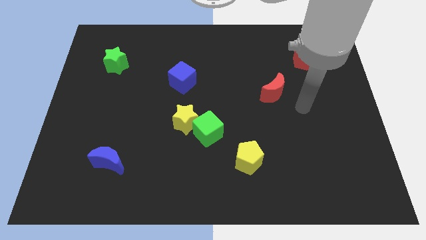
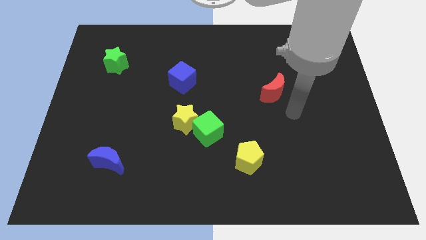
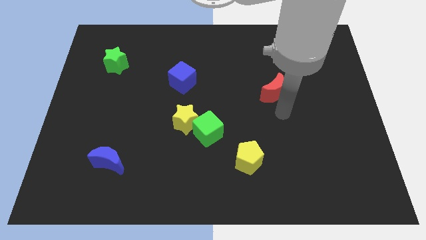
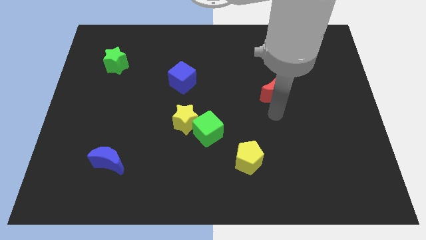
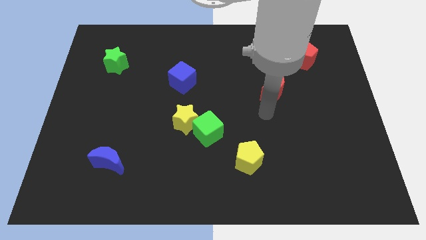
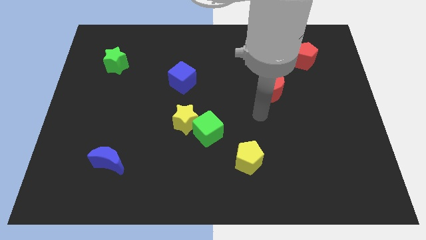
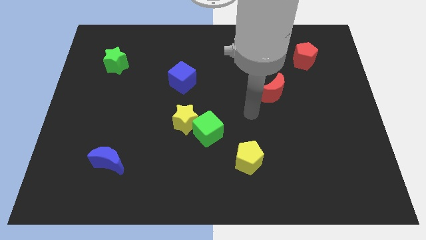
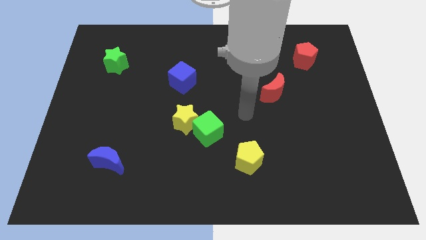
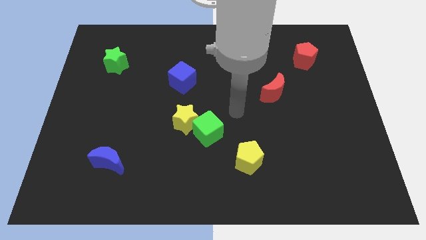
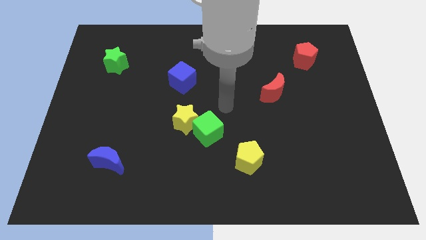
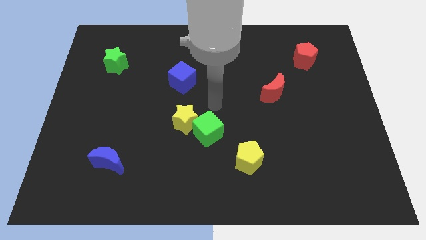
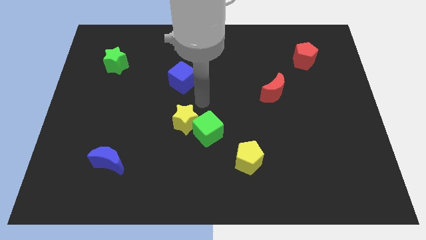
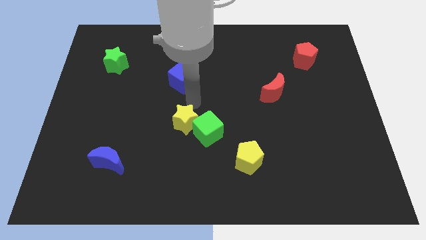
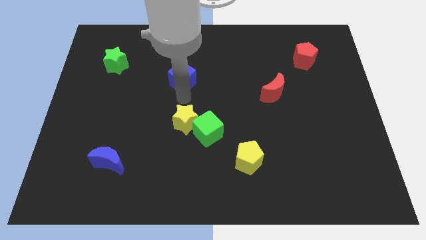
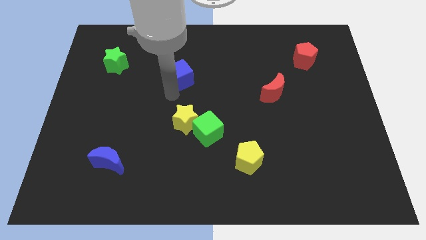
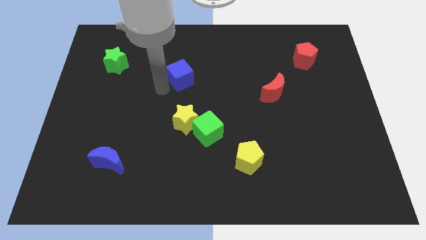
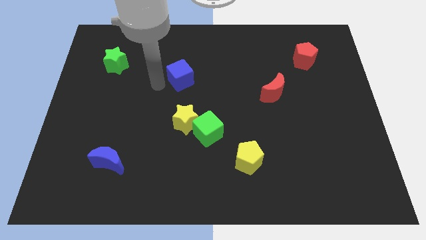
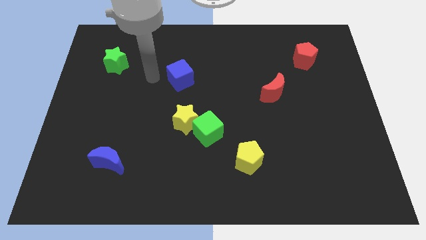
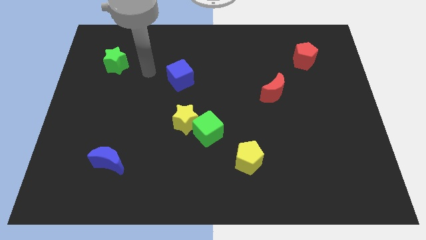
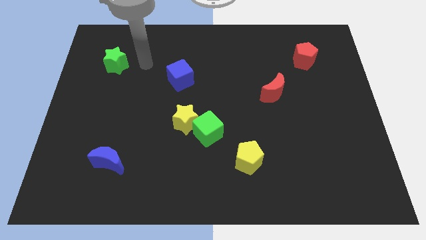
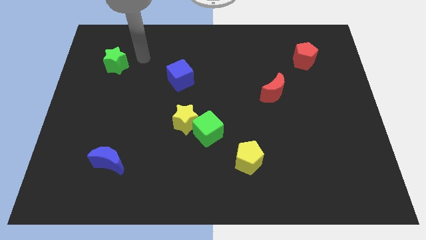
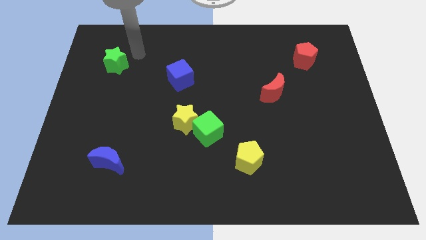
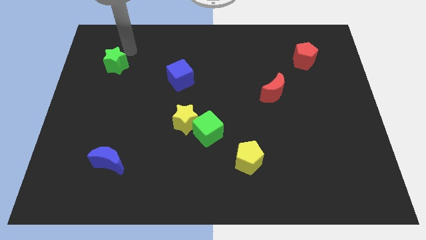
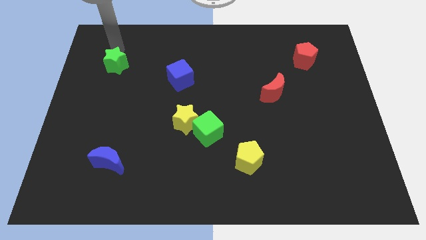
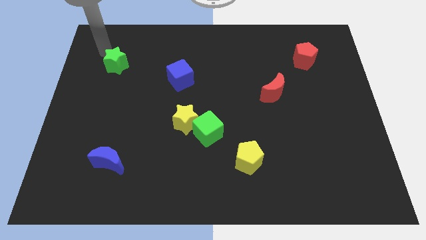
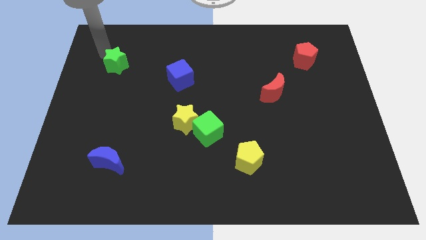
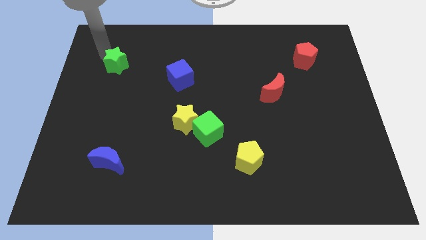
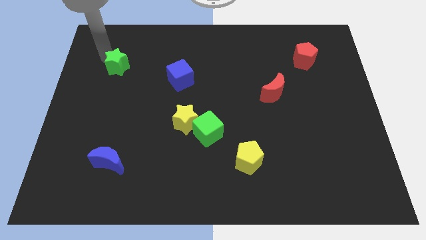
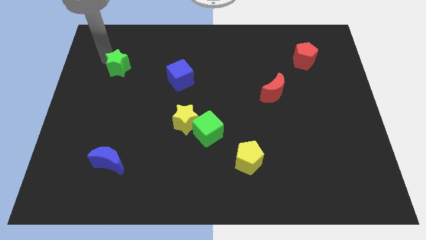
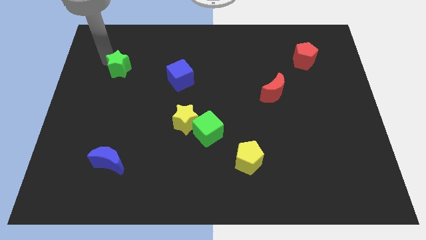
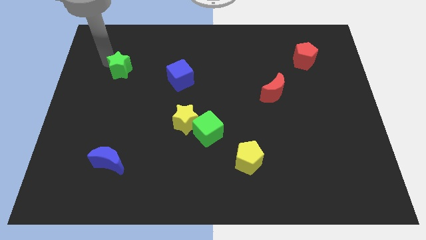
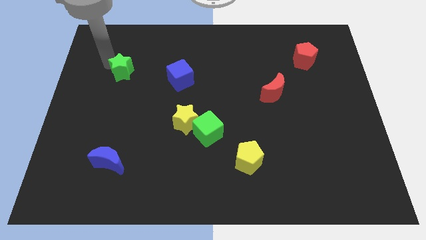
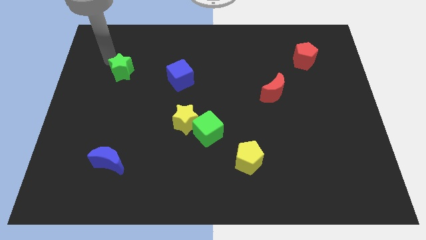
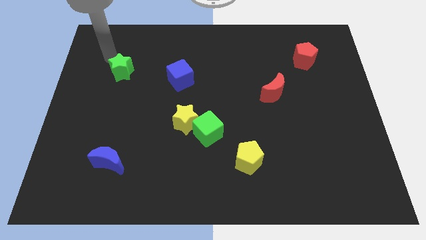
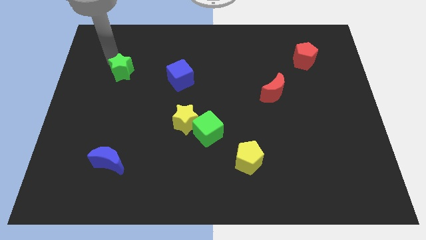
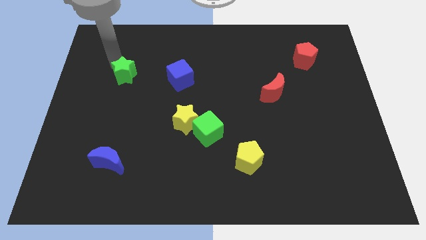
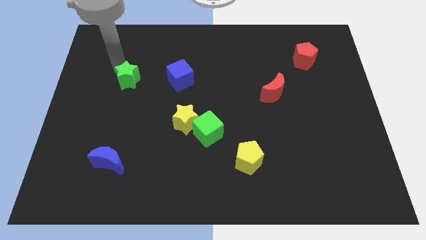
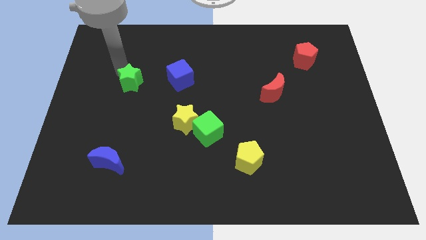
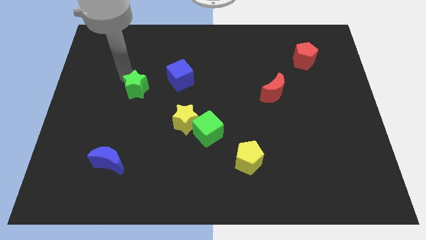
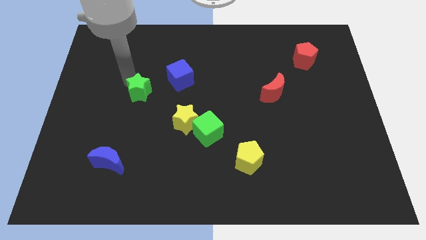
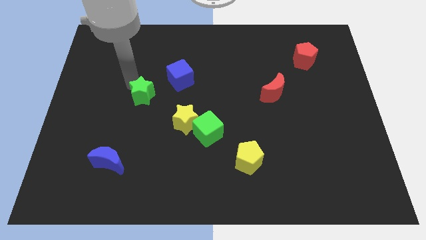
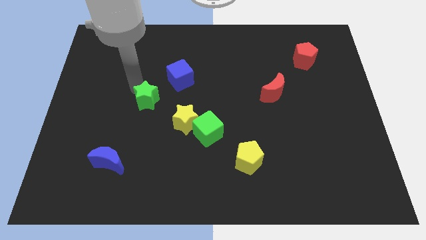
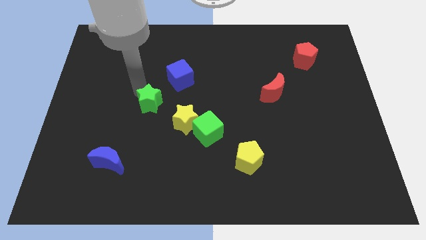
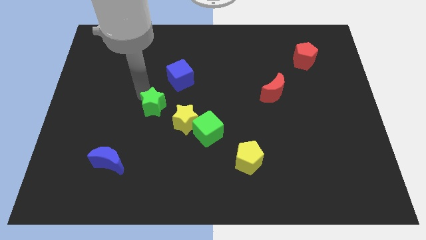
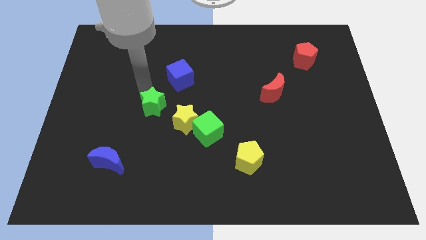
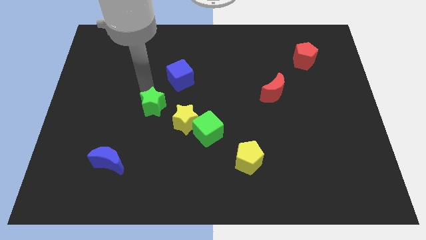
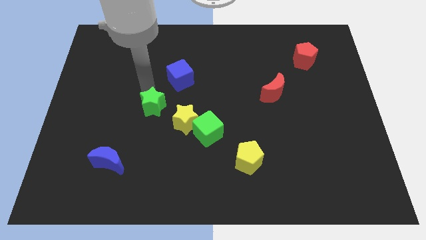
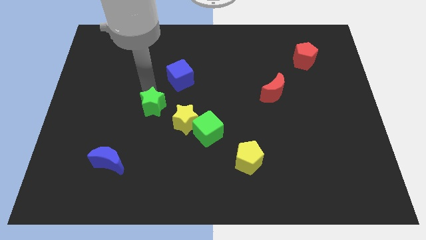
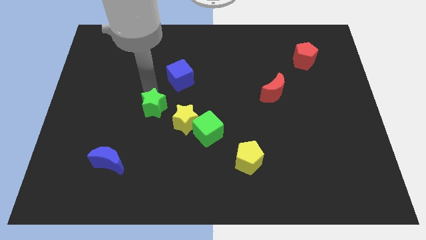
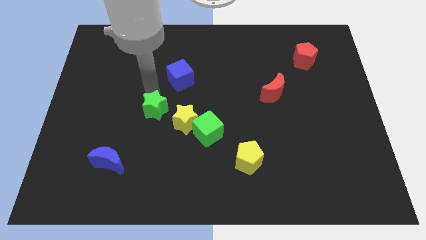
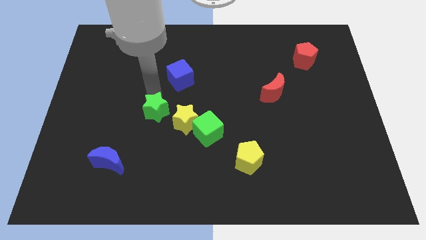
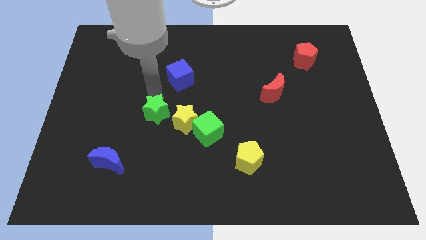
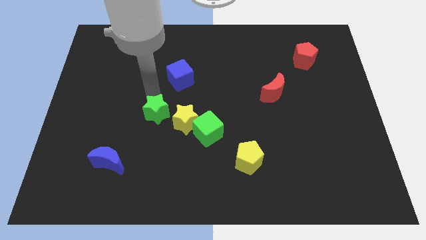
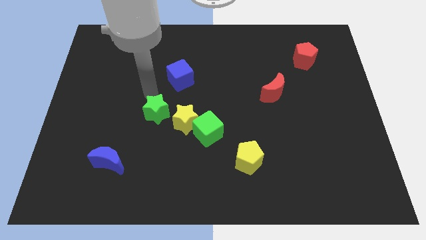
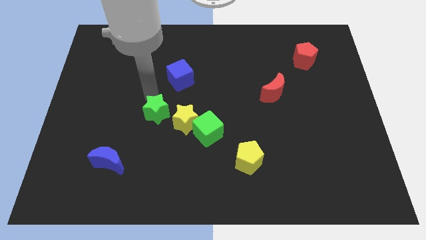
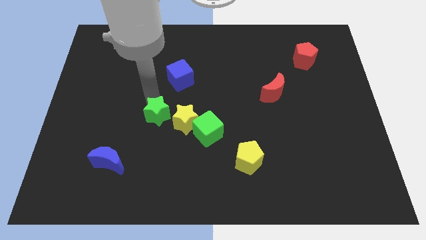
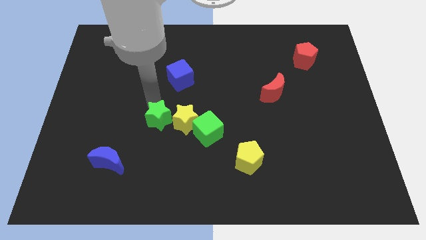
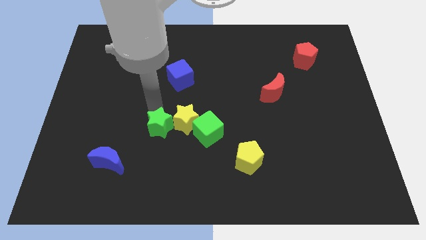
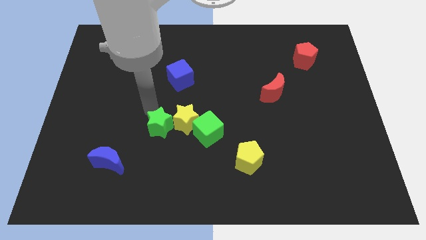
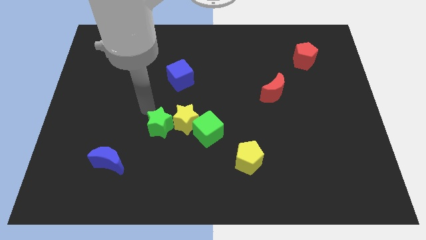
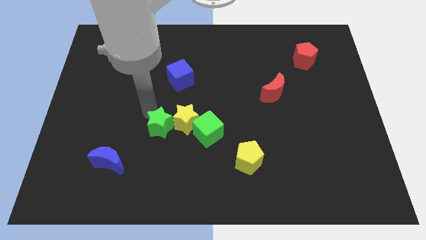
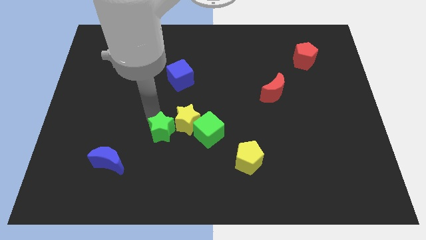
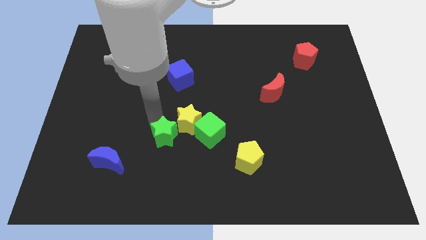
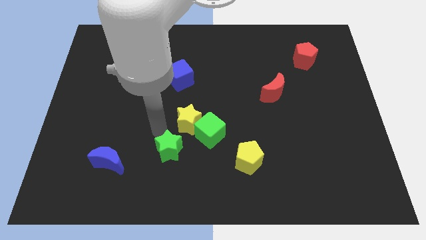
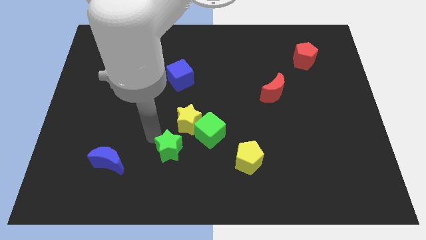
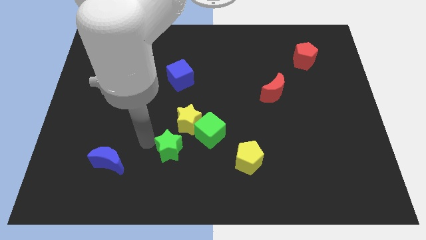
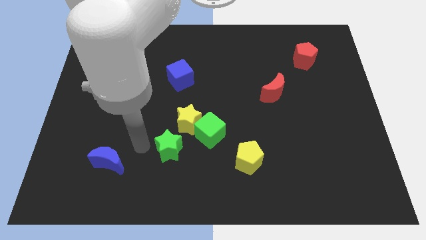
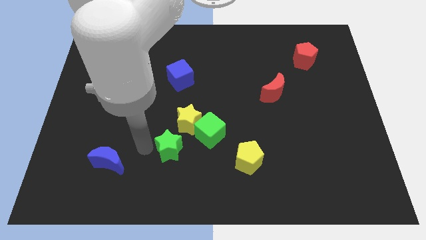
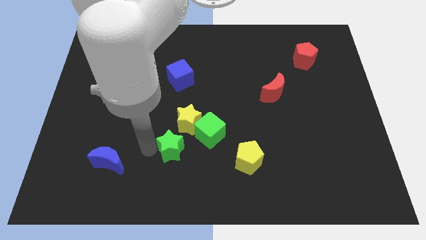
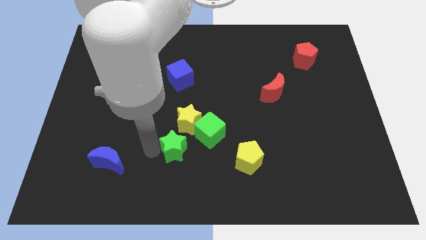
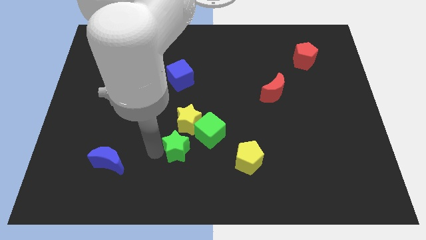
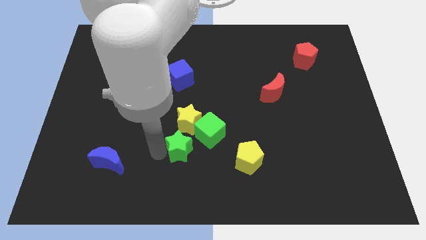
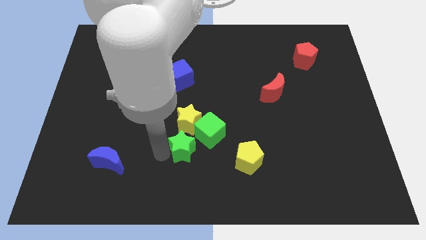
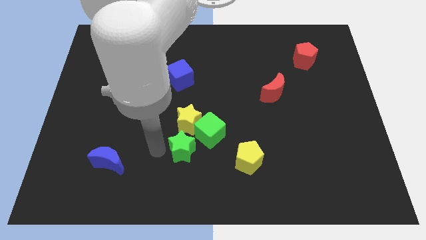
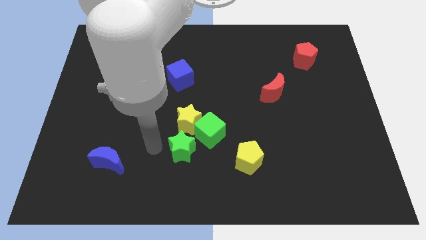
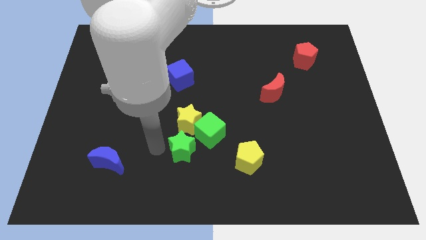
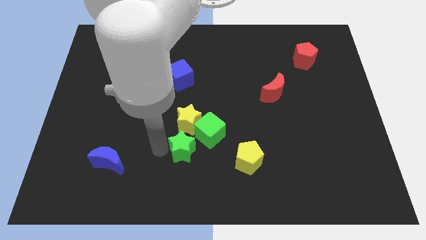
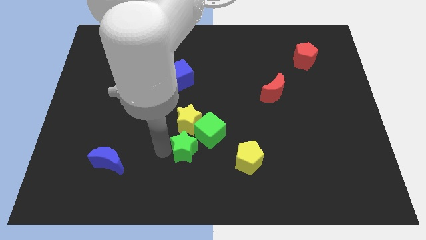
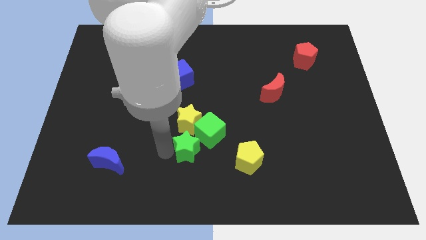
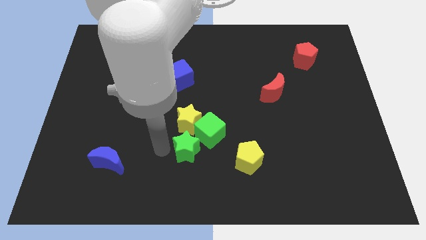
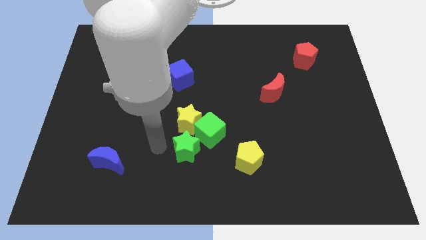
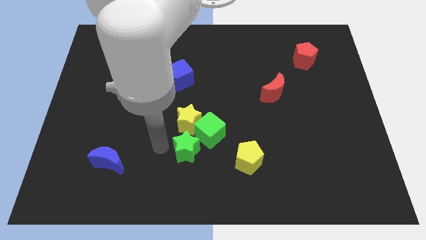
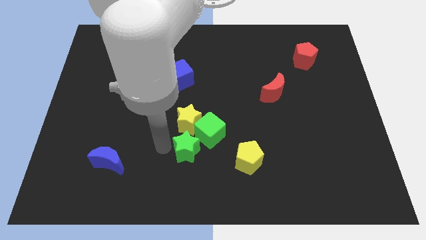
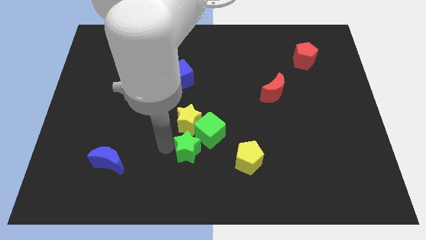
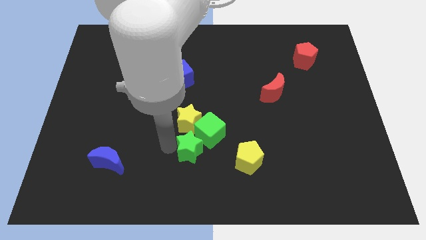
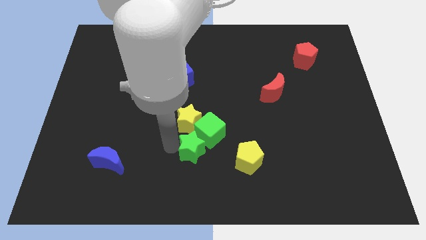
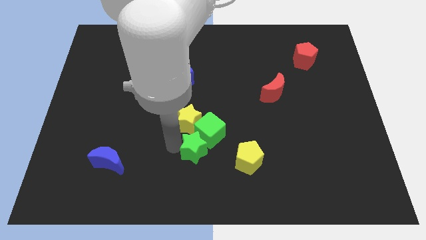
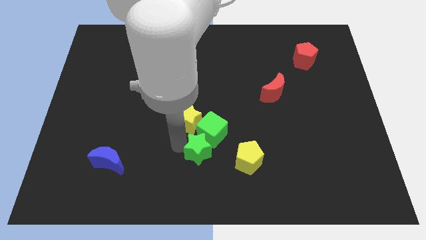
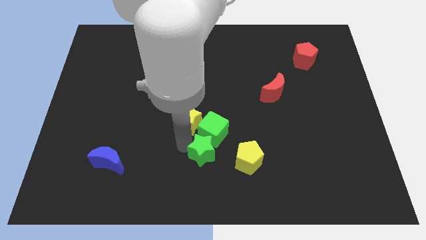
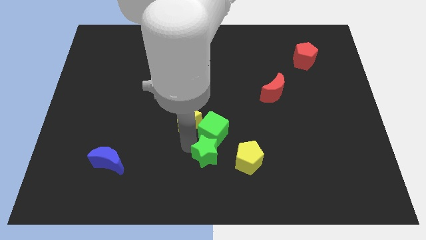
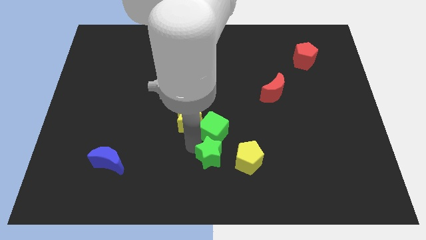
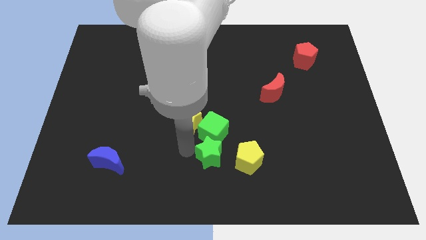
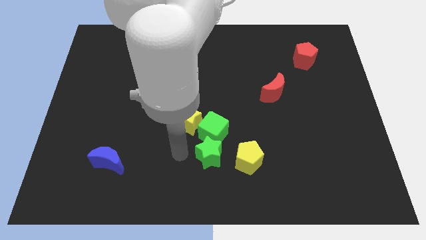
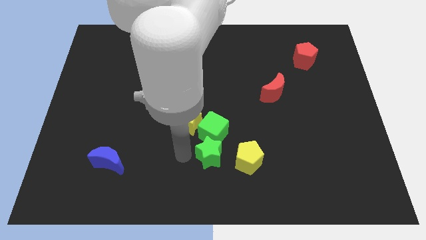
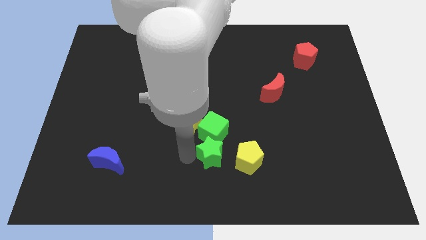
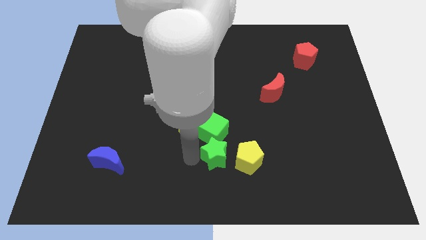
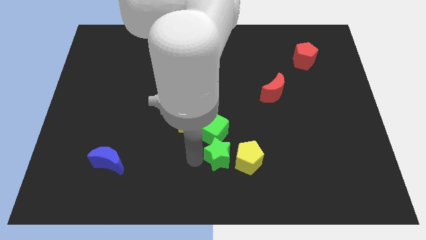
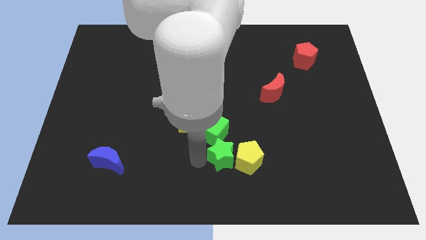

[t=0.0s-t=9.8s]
slide the green star to the yellow pentagon
